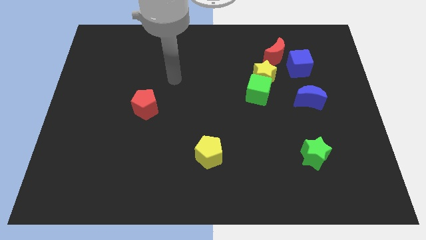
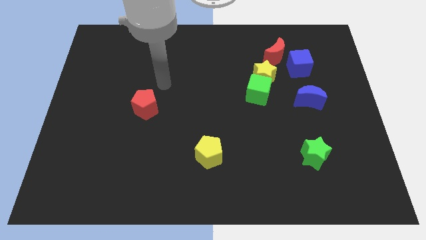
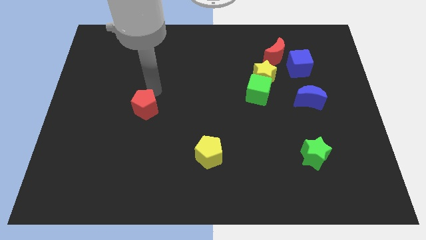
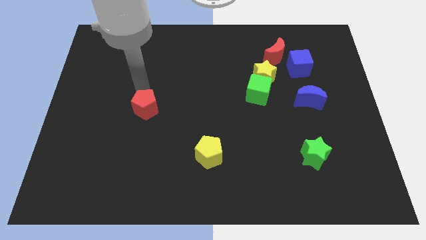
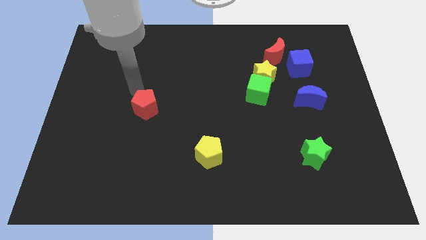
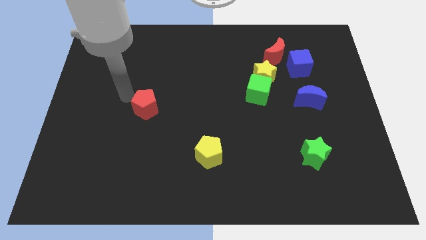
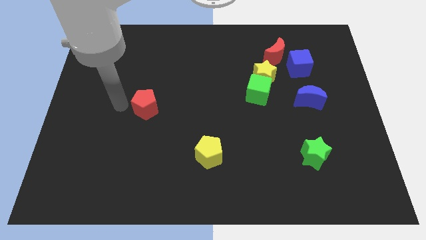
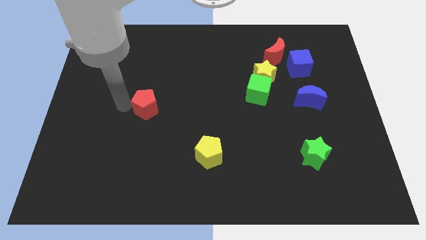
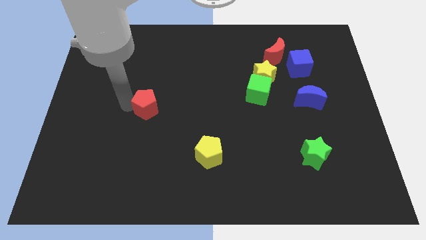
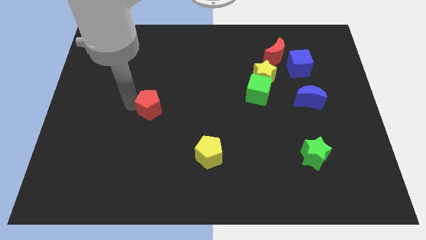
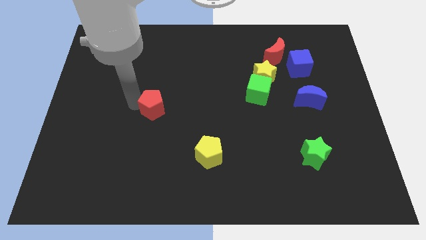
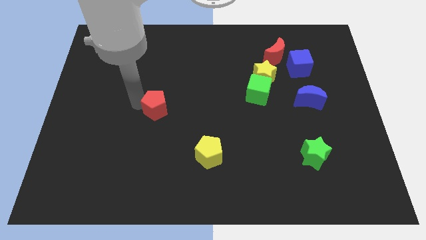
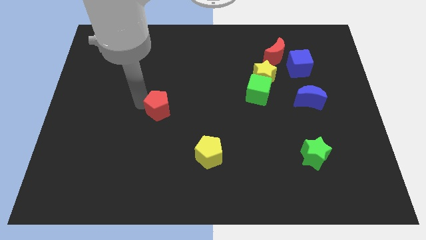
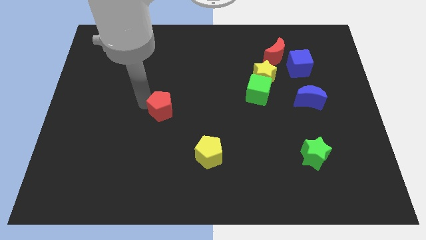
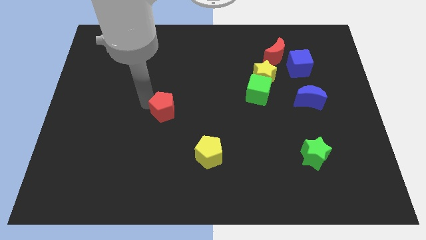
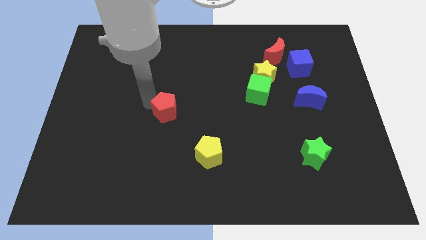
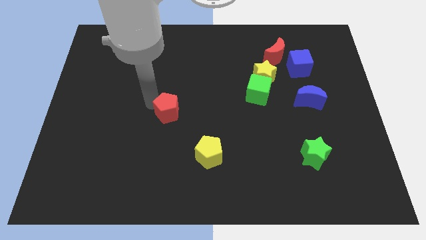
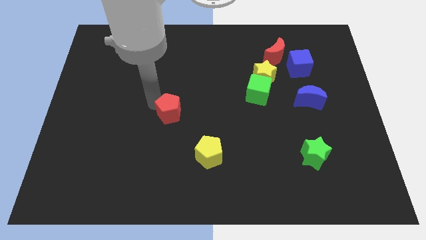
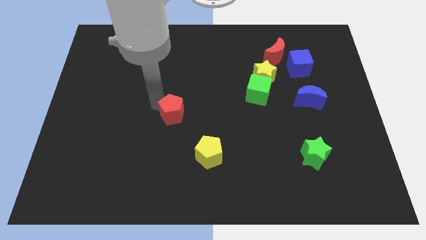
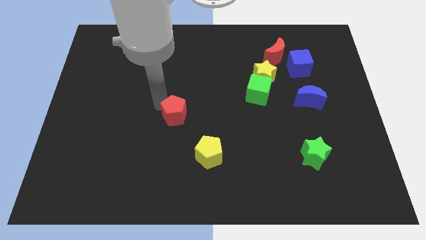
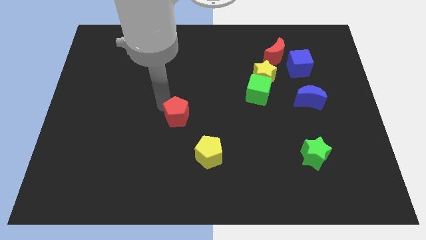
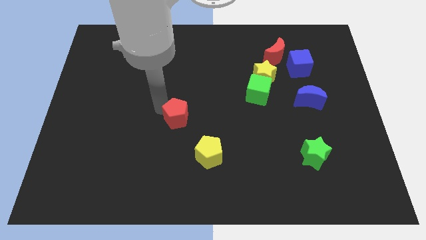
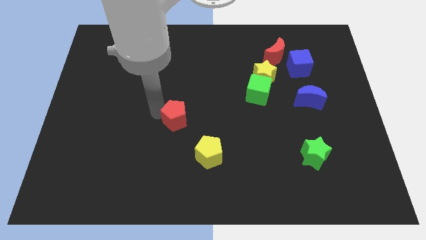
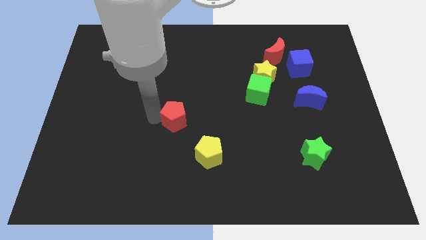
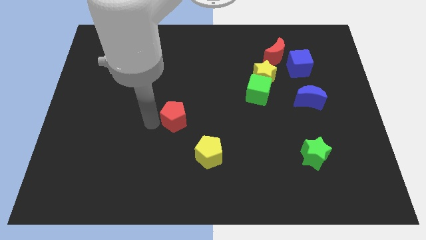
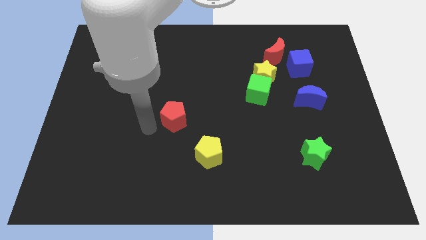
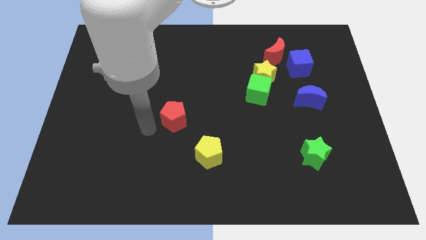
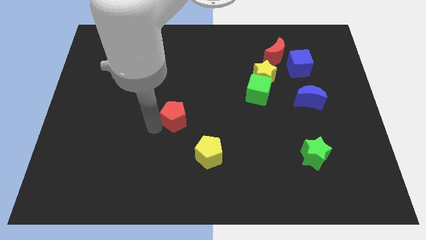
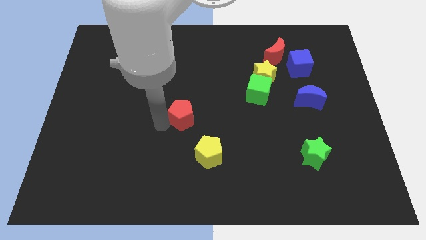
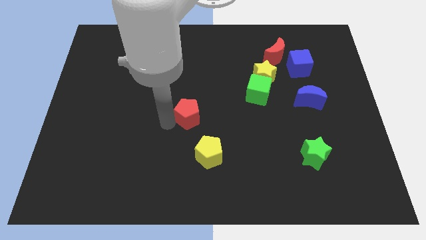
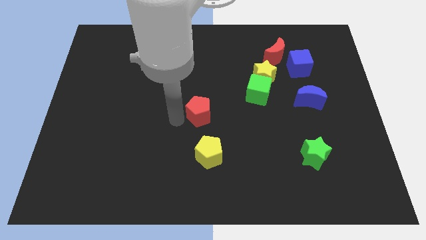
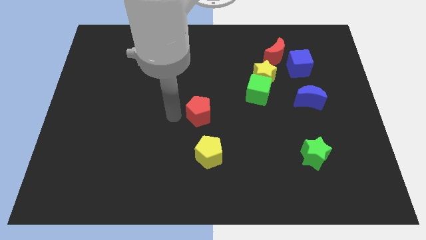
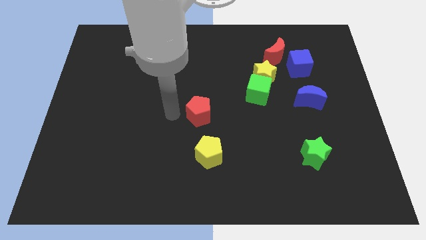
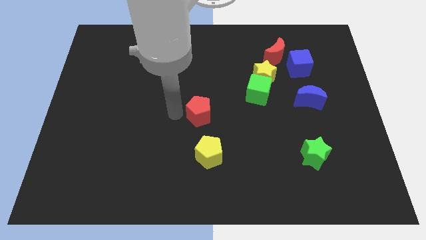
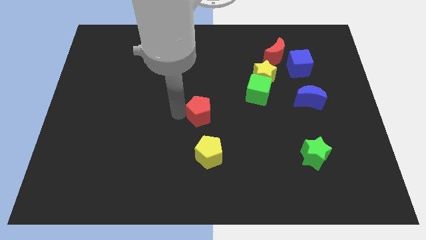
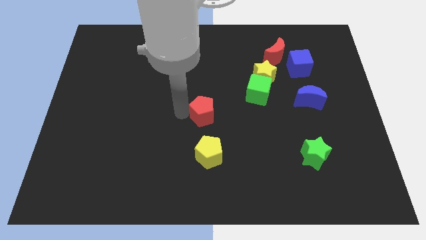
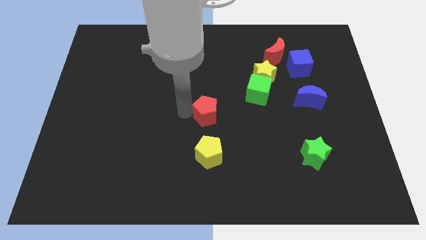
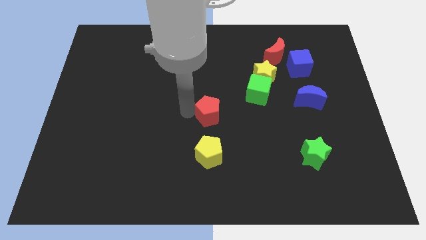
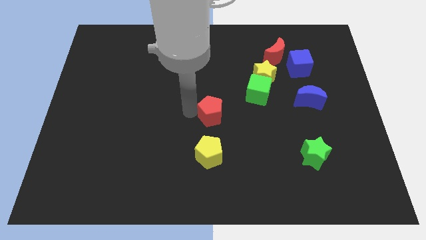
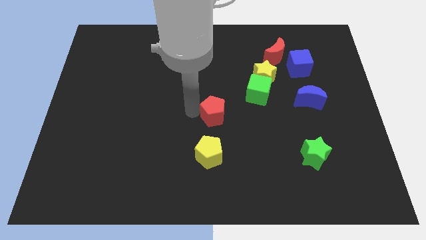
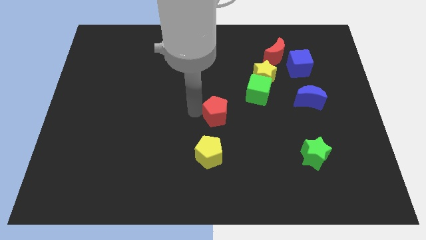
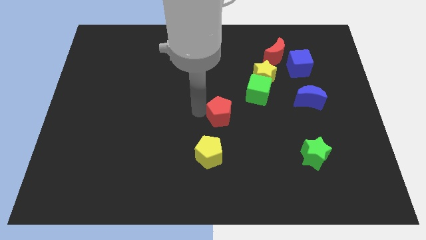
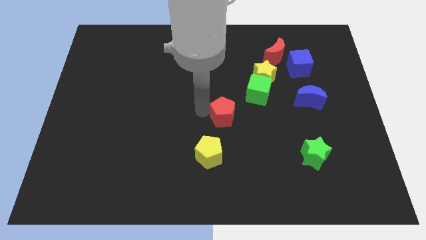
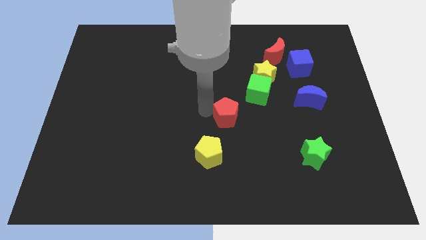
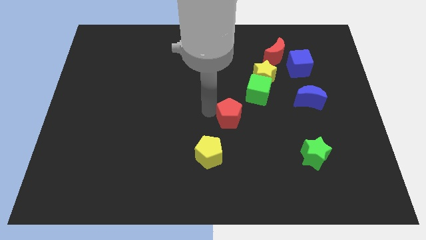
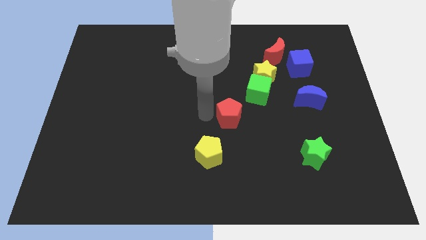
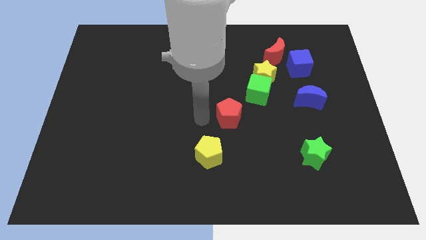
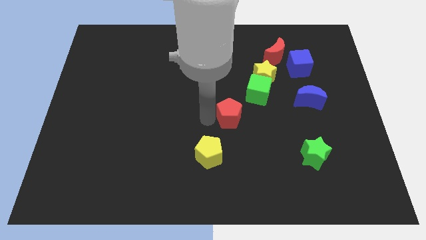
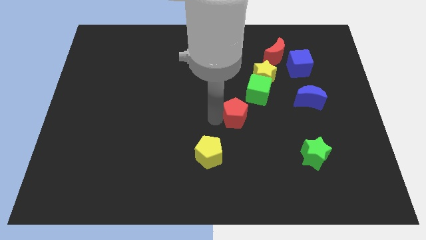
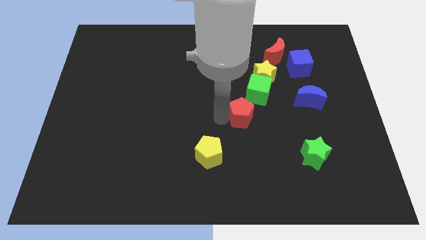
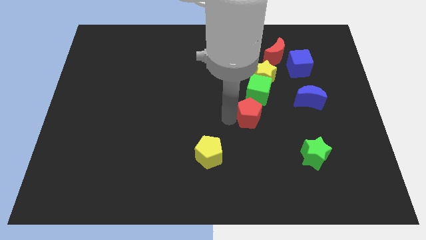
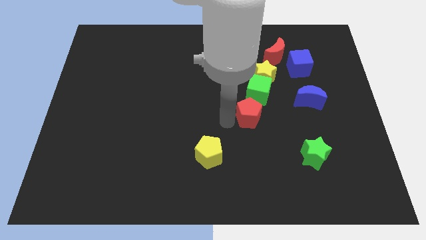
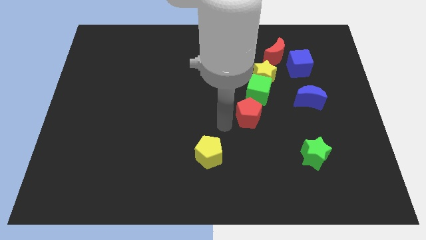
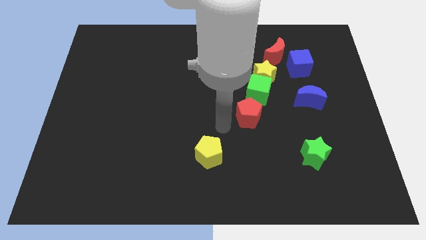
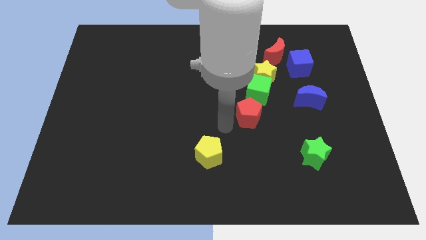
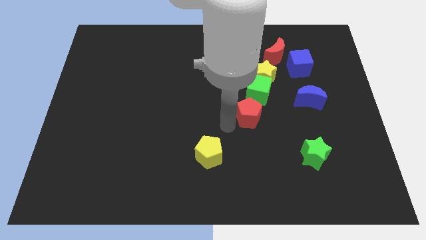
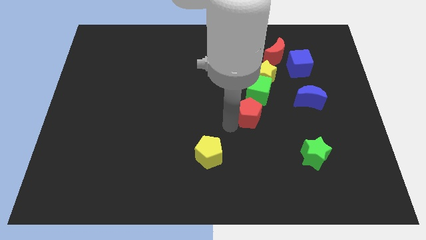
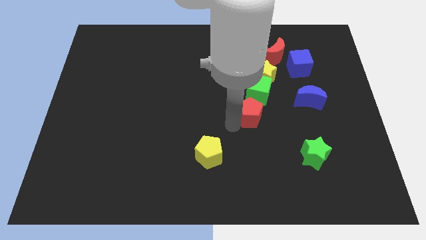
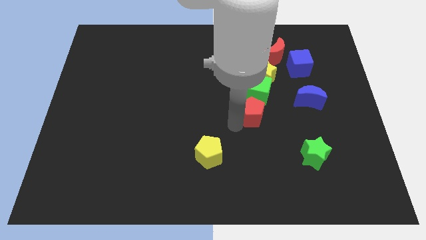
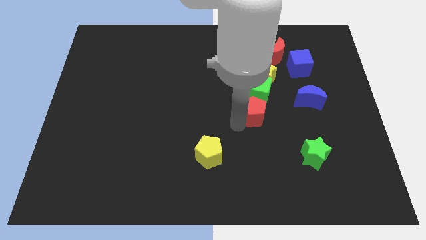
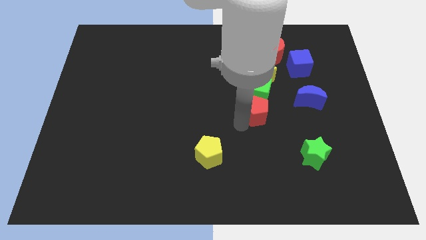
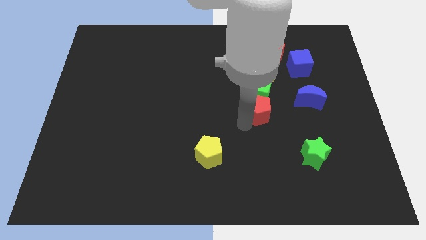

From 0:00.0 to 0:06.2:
slide the red pentagon to the bottom right side of the green cube

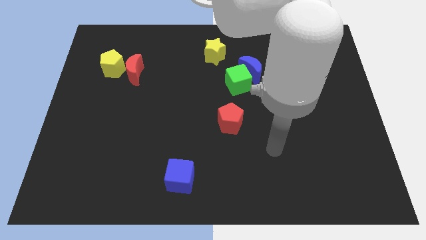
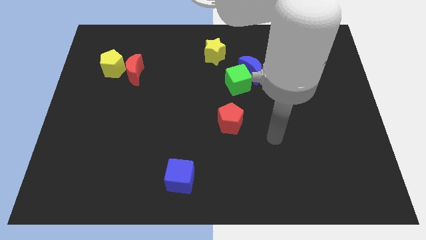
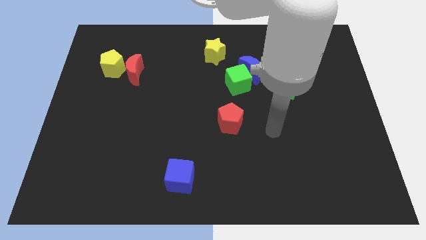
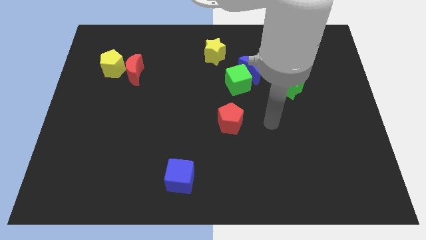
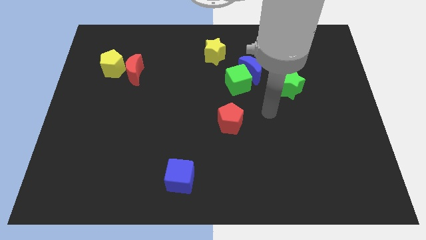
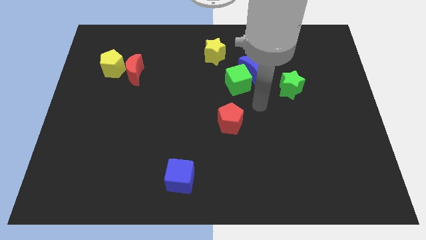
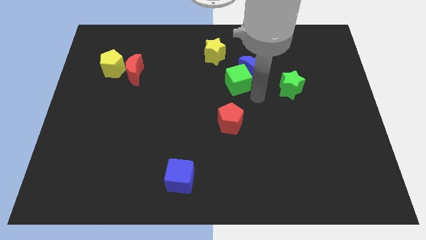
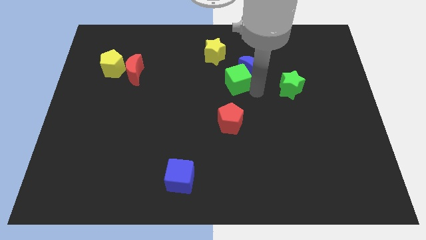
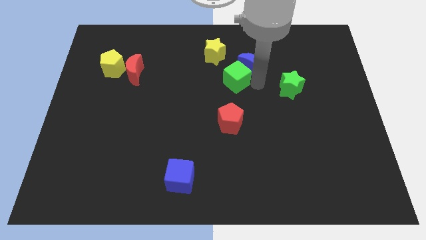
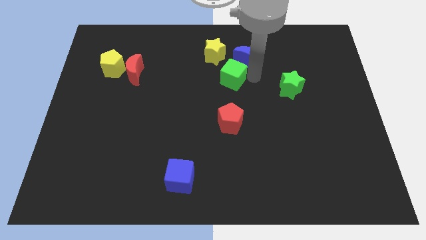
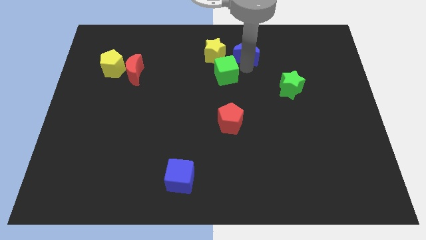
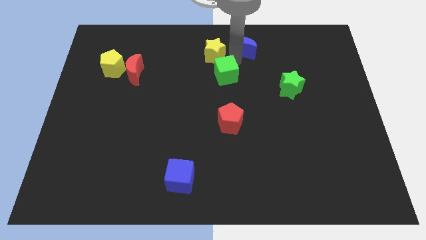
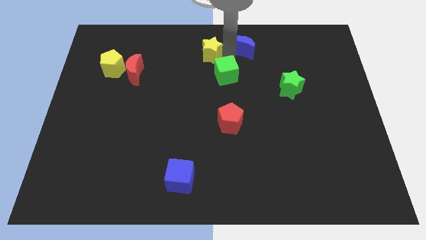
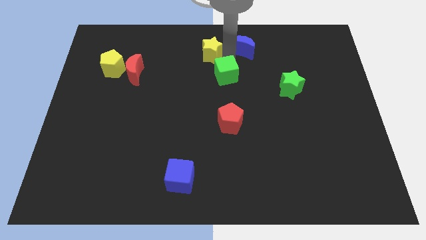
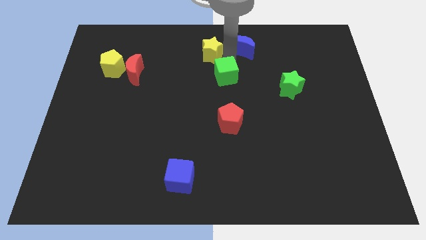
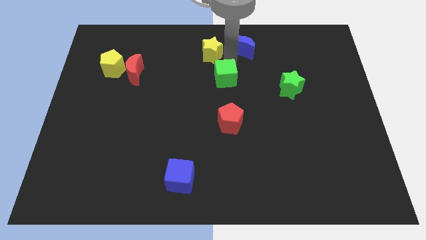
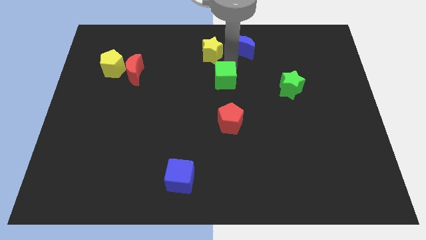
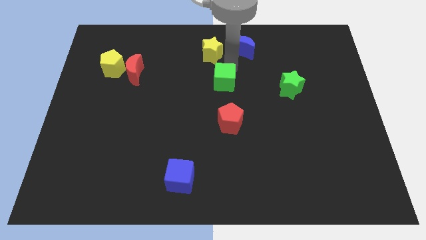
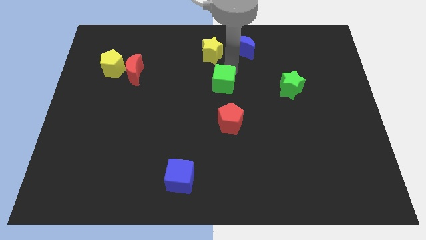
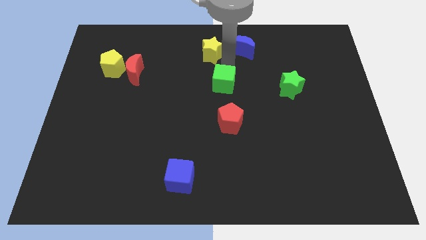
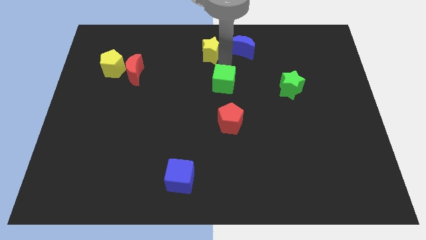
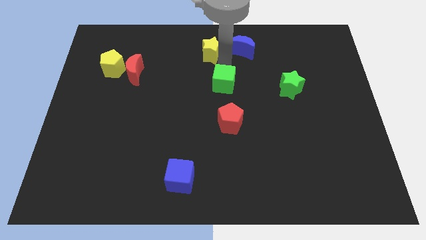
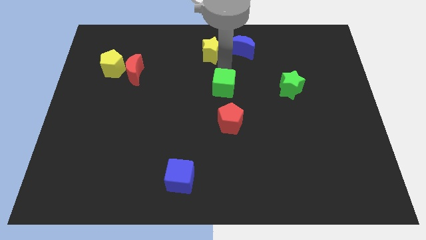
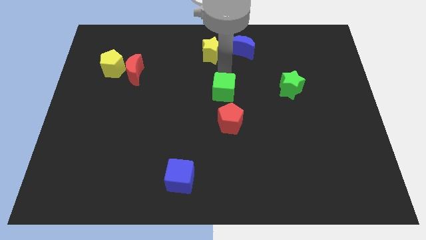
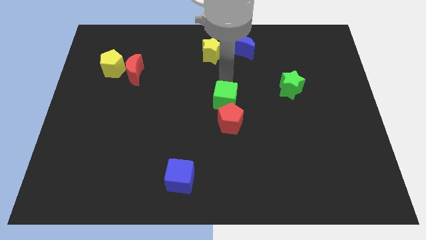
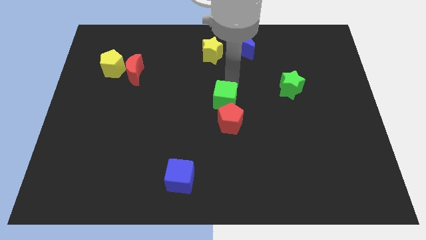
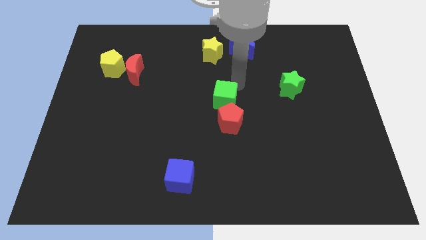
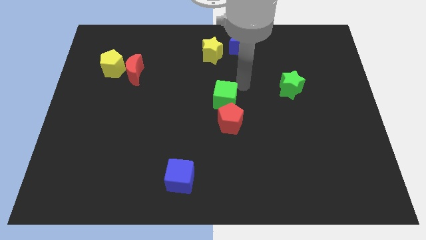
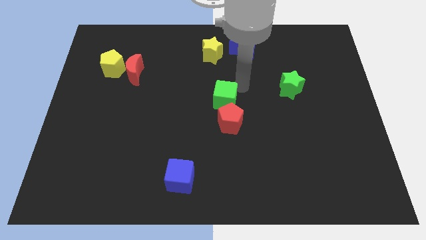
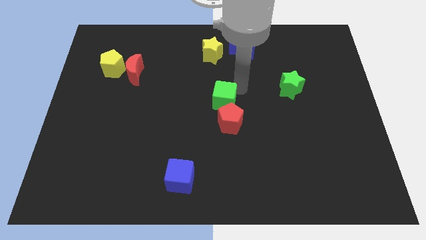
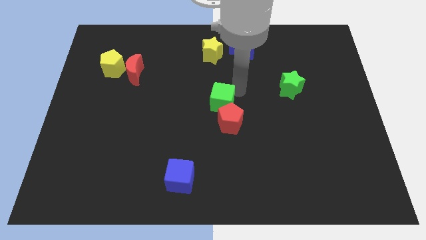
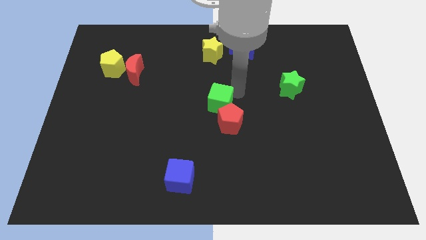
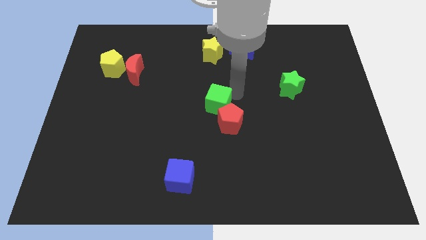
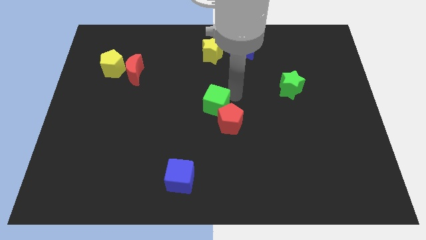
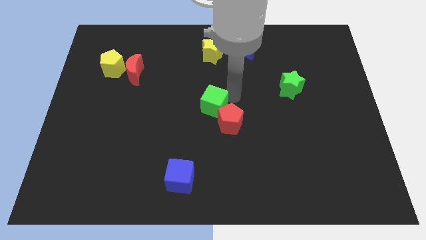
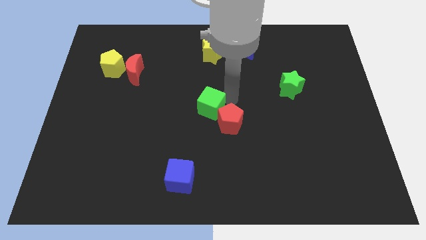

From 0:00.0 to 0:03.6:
slide the green cube just left of the red pentagon
